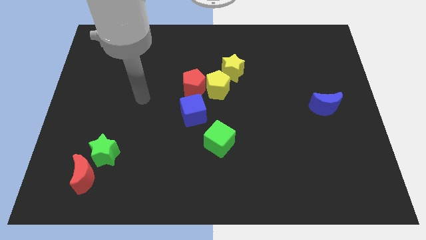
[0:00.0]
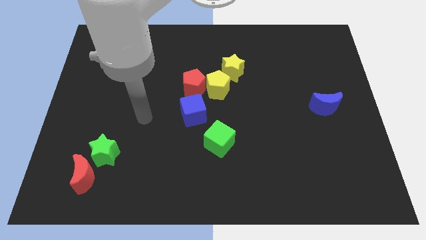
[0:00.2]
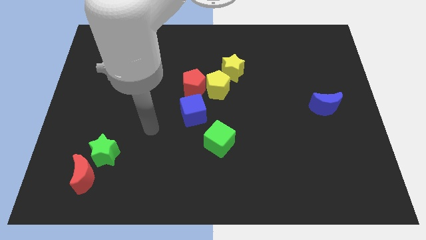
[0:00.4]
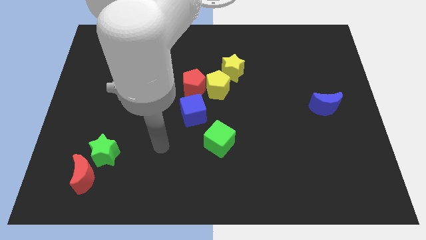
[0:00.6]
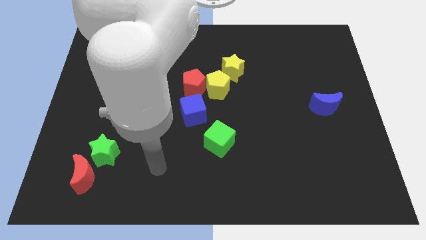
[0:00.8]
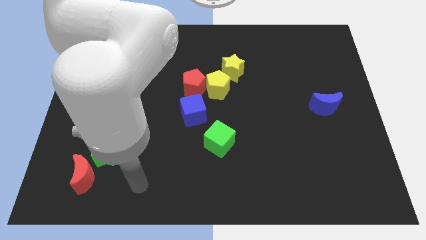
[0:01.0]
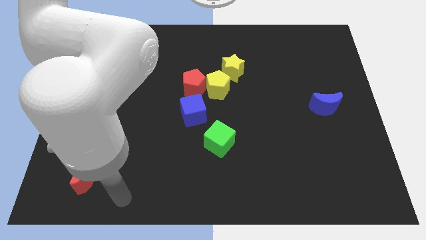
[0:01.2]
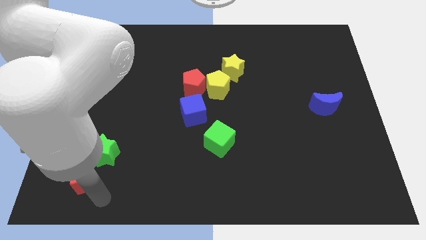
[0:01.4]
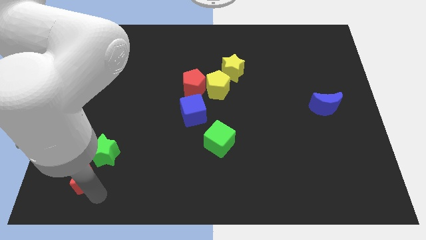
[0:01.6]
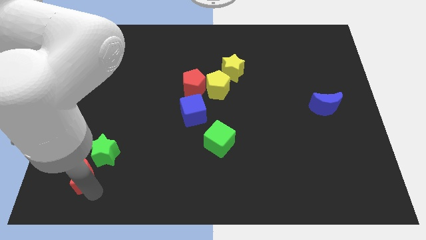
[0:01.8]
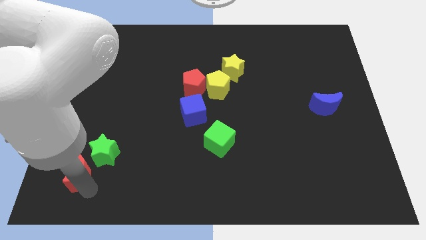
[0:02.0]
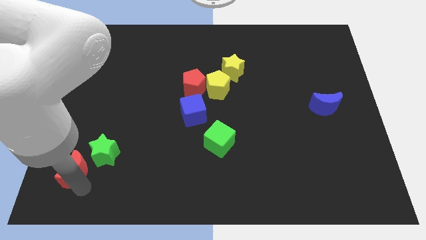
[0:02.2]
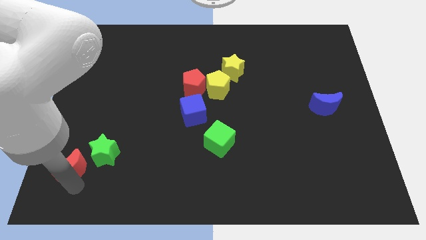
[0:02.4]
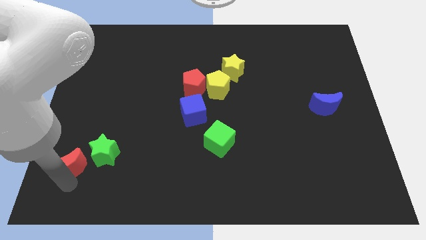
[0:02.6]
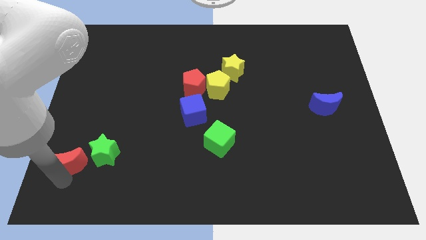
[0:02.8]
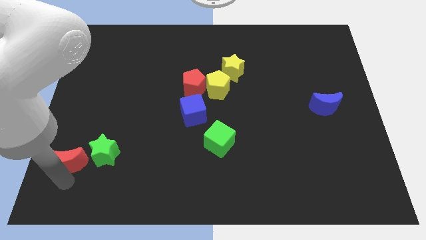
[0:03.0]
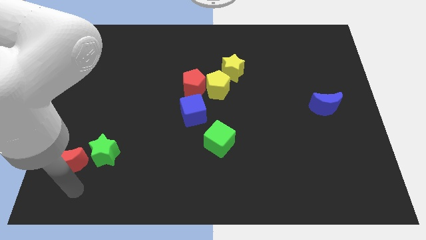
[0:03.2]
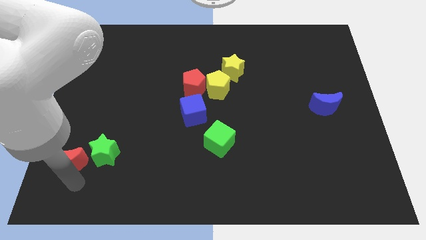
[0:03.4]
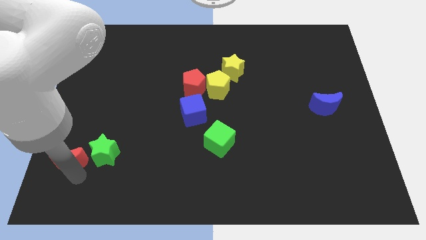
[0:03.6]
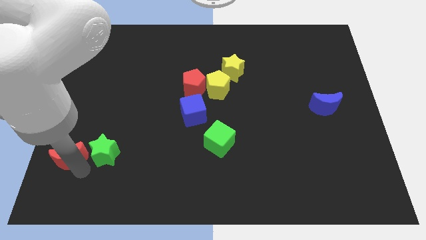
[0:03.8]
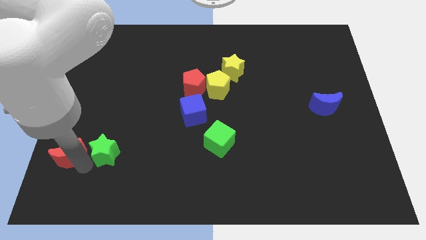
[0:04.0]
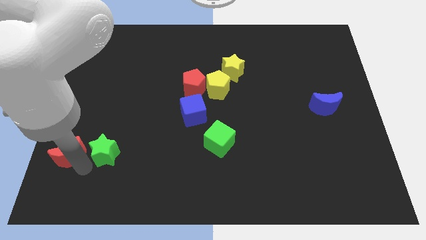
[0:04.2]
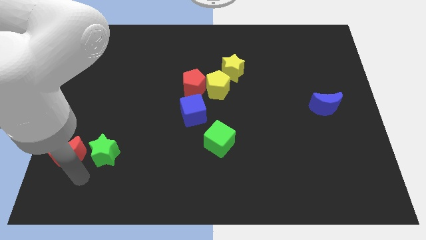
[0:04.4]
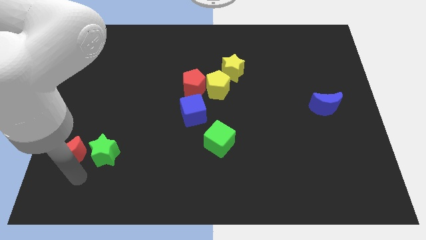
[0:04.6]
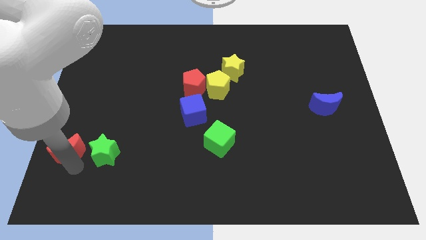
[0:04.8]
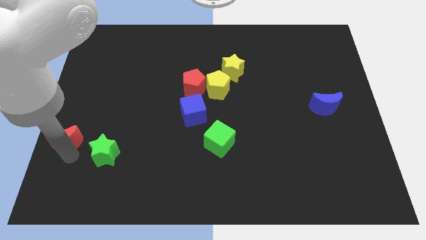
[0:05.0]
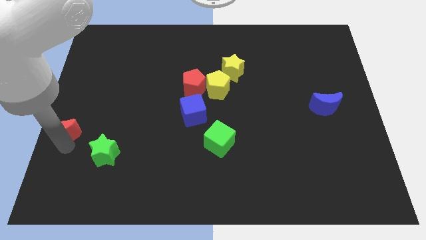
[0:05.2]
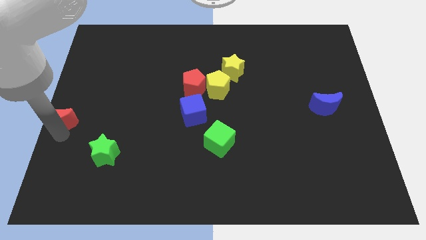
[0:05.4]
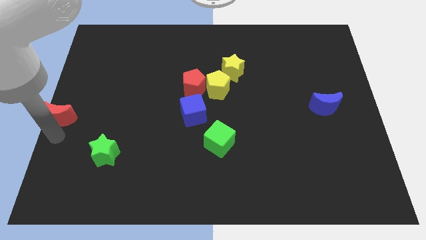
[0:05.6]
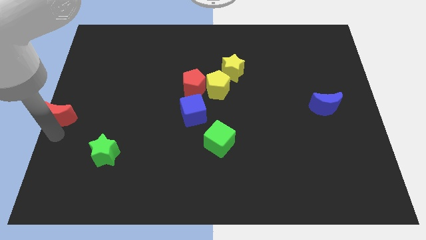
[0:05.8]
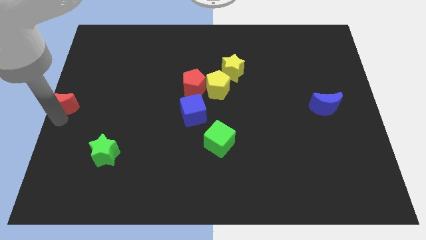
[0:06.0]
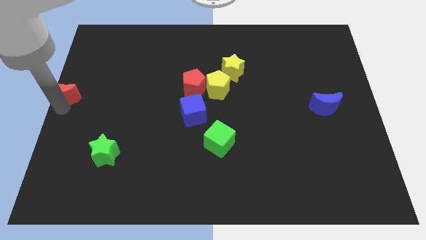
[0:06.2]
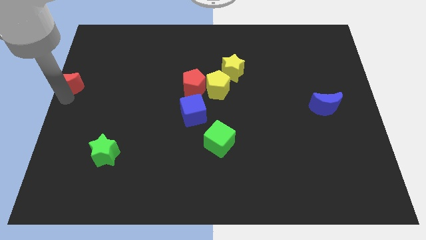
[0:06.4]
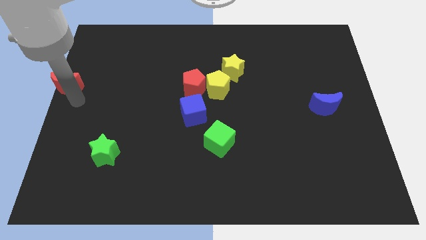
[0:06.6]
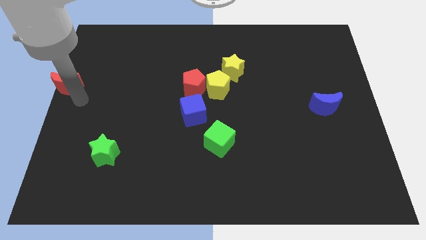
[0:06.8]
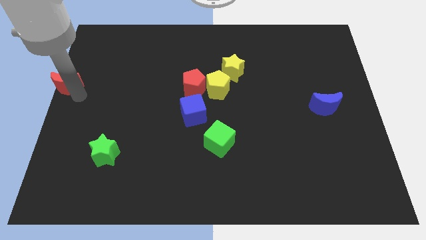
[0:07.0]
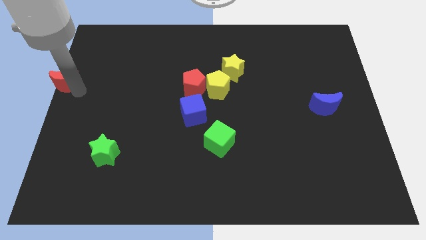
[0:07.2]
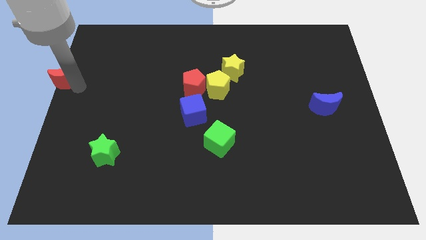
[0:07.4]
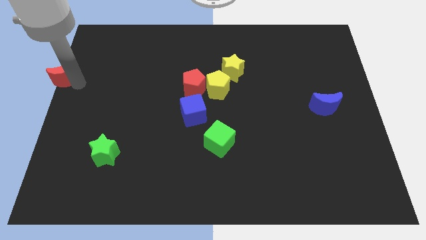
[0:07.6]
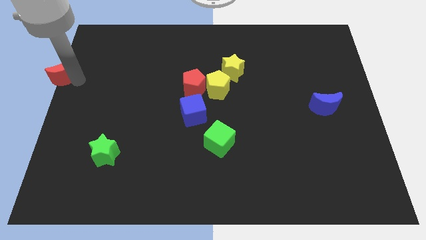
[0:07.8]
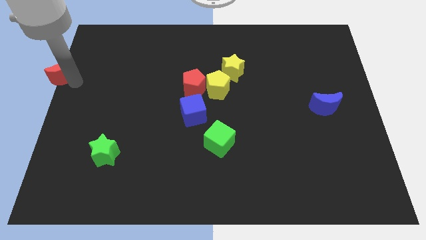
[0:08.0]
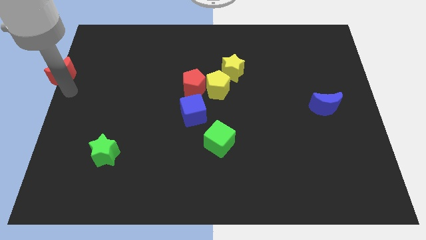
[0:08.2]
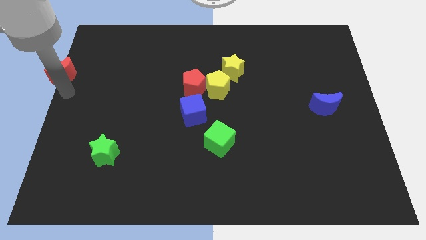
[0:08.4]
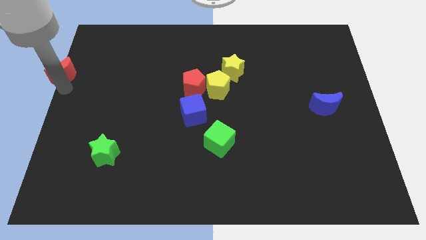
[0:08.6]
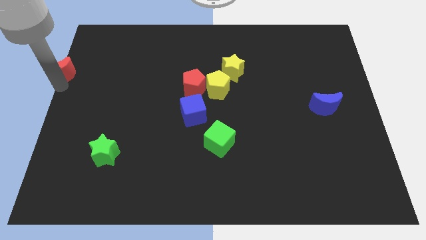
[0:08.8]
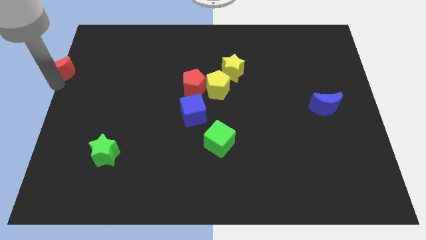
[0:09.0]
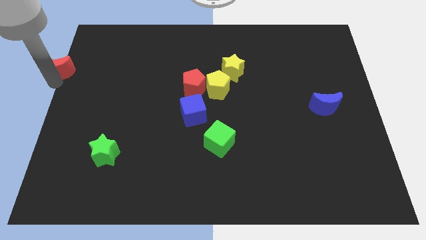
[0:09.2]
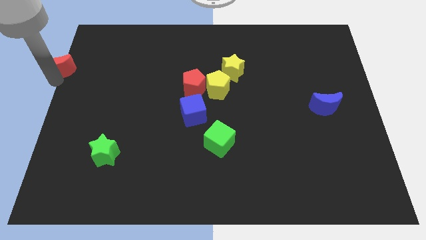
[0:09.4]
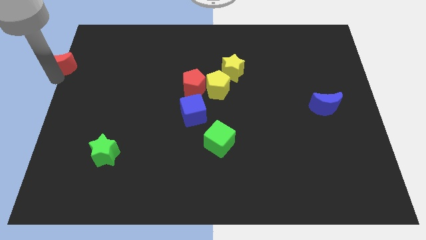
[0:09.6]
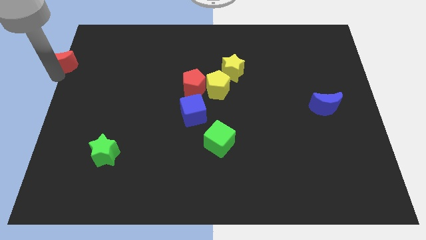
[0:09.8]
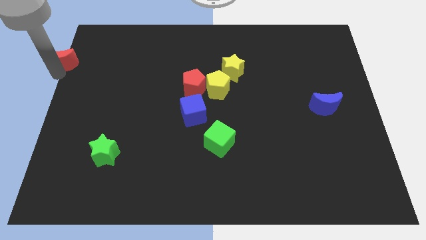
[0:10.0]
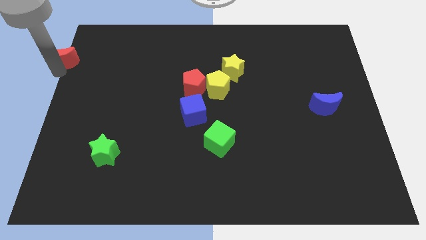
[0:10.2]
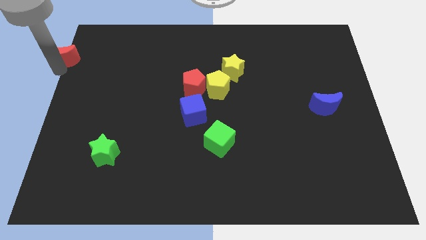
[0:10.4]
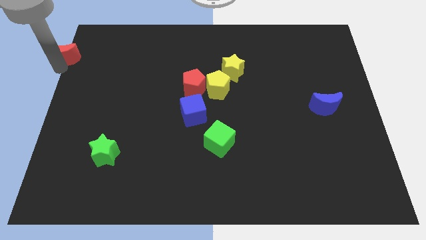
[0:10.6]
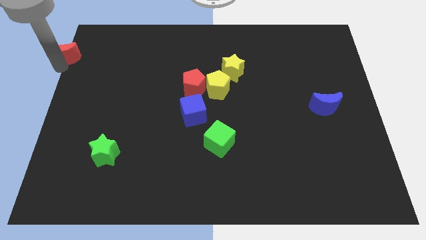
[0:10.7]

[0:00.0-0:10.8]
move the red moon to the upper left corner

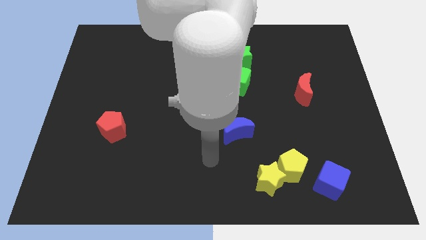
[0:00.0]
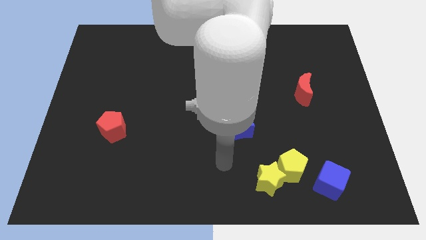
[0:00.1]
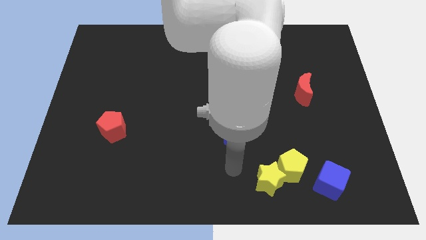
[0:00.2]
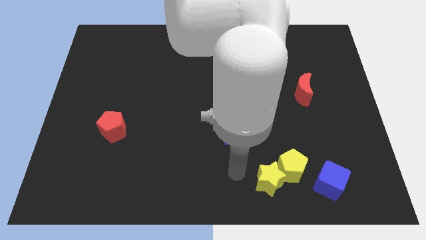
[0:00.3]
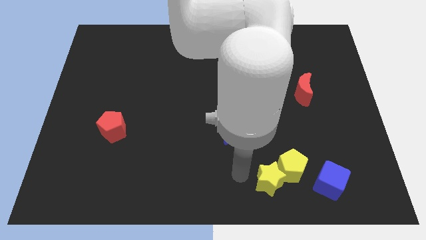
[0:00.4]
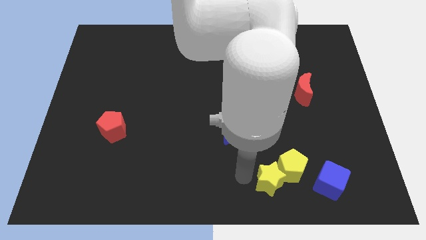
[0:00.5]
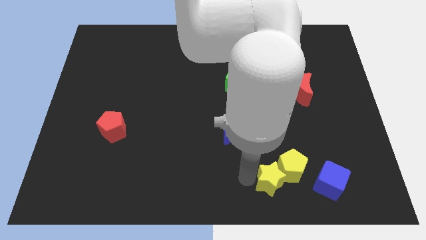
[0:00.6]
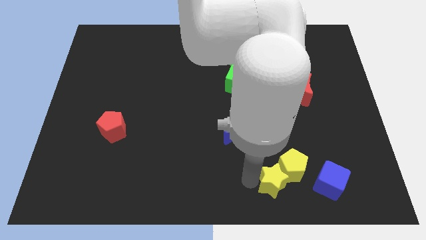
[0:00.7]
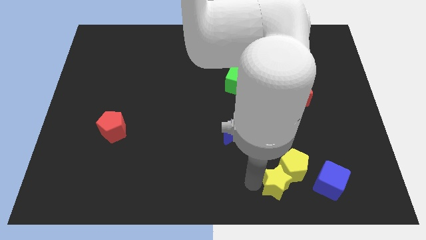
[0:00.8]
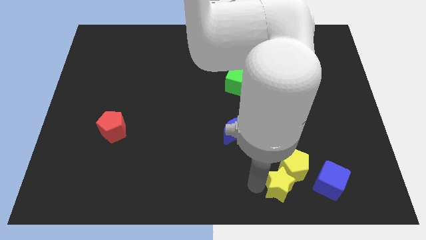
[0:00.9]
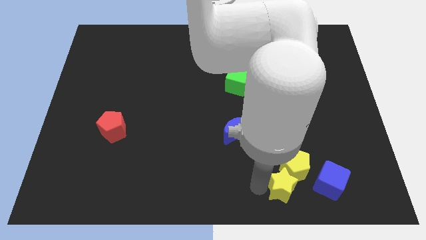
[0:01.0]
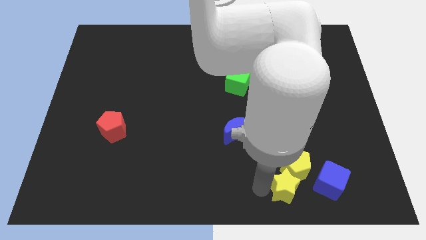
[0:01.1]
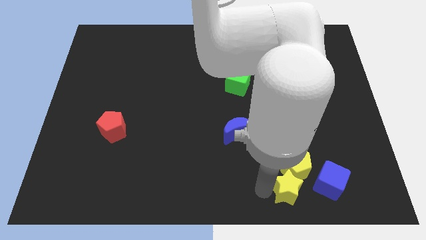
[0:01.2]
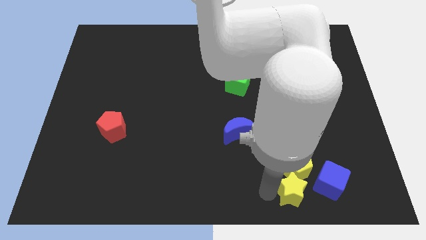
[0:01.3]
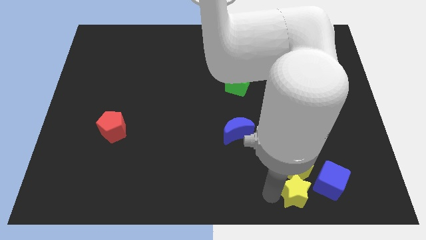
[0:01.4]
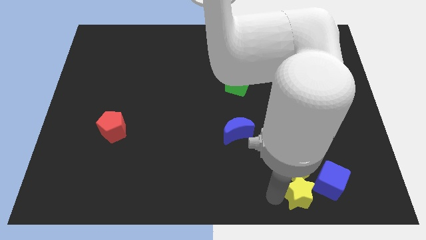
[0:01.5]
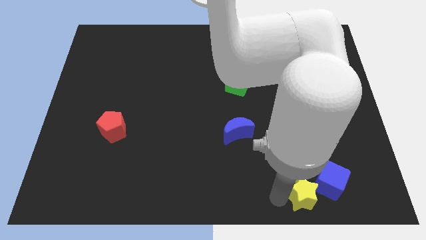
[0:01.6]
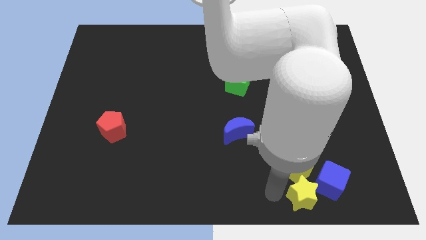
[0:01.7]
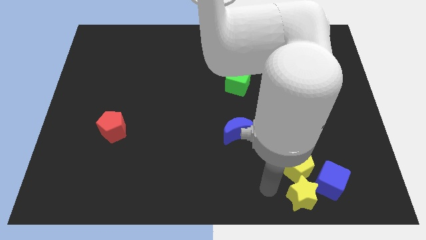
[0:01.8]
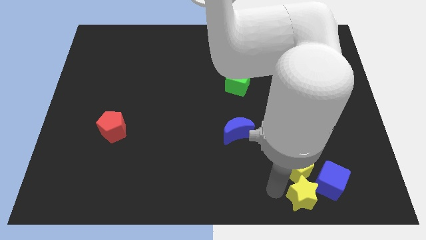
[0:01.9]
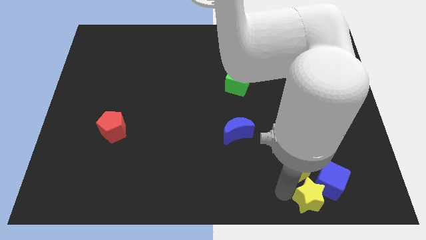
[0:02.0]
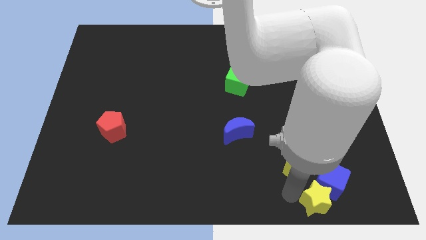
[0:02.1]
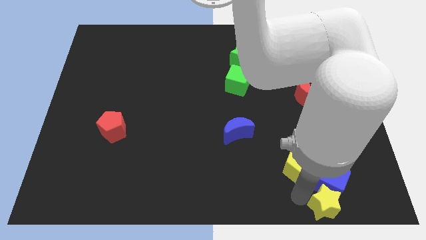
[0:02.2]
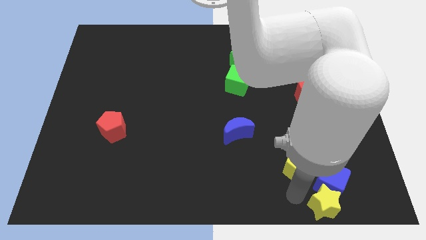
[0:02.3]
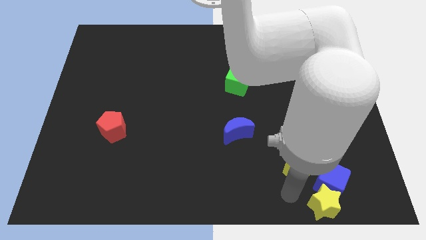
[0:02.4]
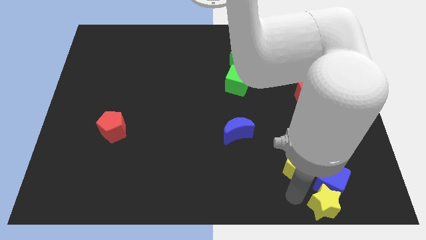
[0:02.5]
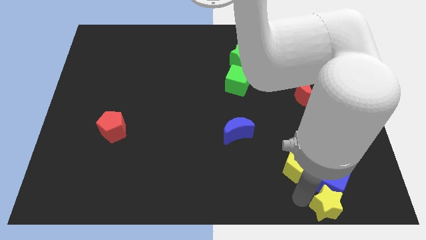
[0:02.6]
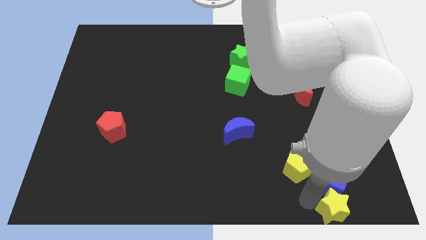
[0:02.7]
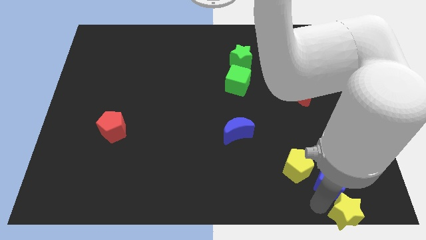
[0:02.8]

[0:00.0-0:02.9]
put the yellow star to the bottom right corner
